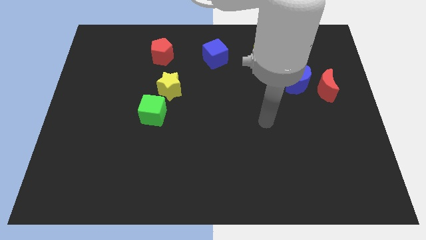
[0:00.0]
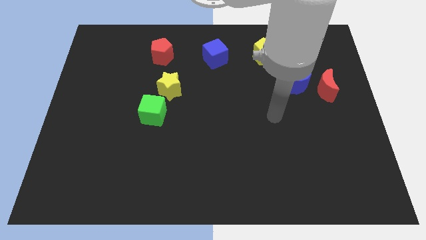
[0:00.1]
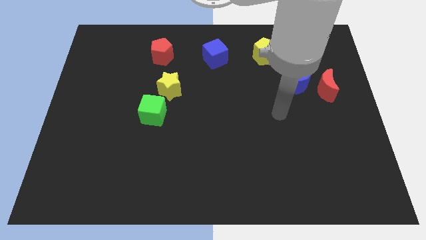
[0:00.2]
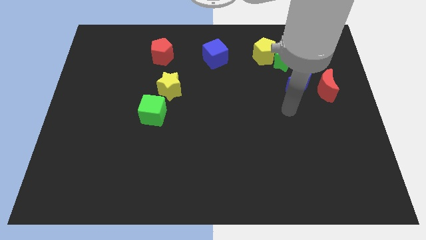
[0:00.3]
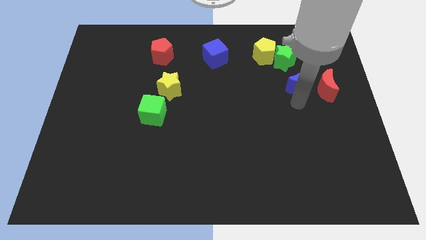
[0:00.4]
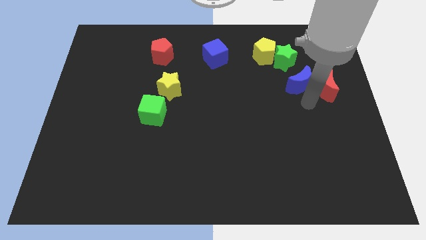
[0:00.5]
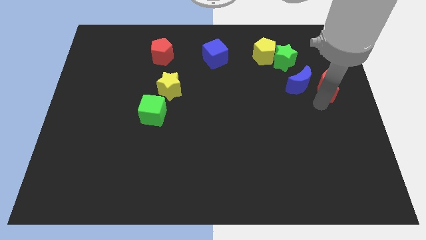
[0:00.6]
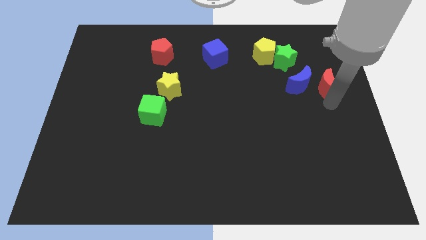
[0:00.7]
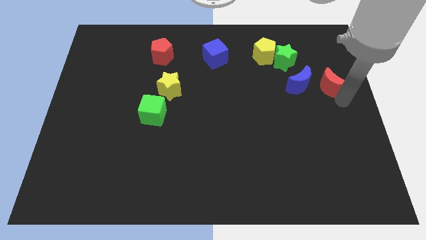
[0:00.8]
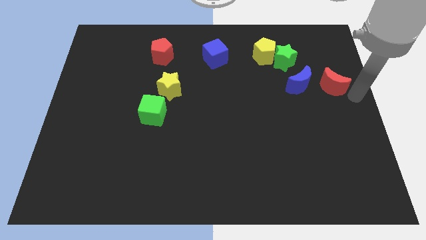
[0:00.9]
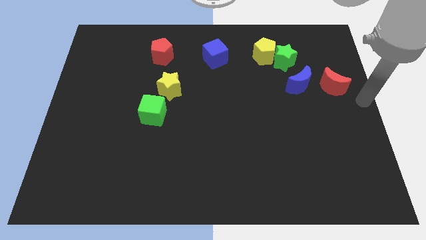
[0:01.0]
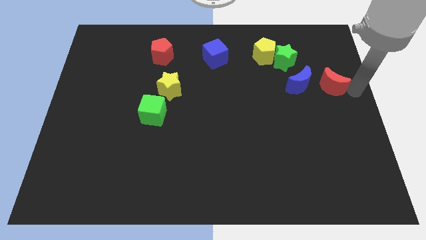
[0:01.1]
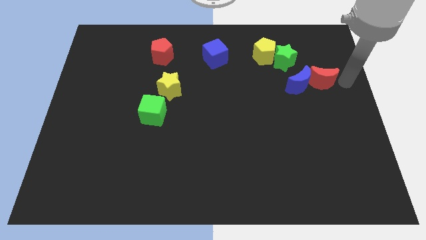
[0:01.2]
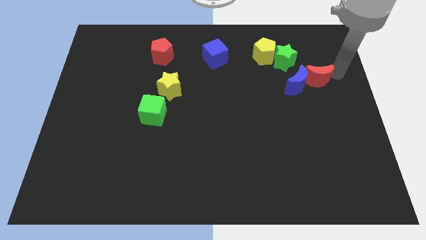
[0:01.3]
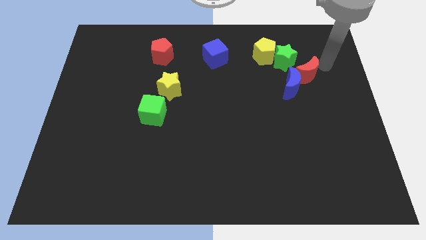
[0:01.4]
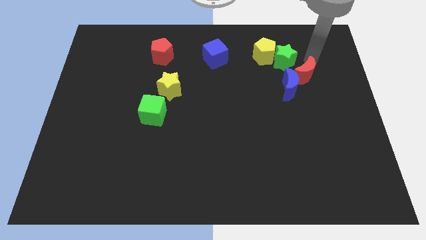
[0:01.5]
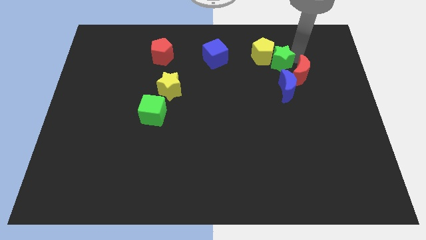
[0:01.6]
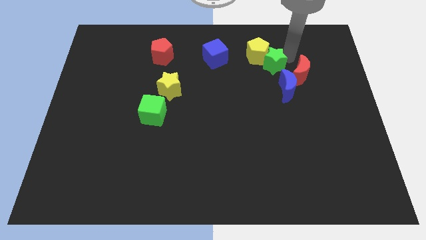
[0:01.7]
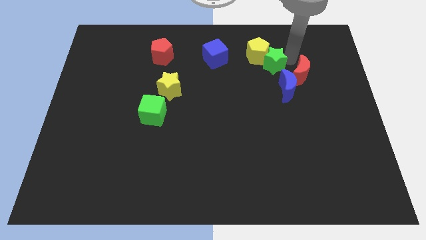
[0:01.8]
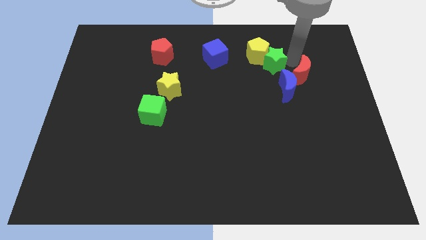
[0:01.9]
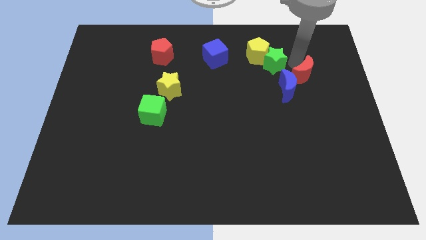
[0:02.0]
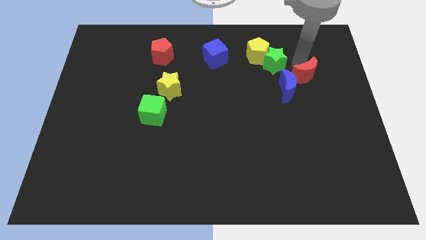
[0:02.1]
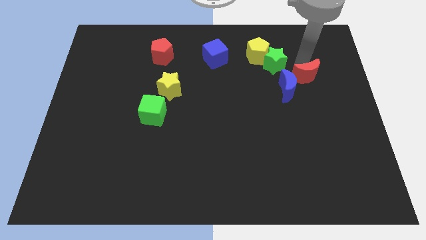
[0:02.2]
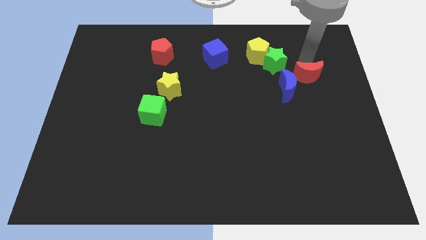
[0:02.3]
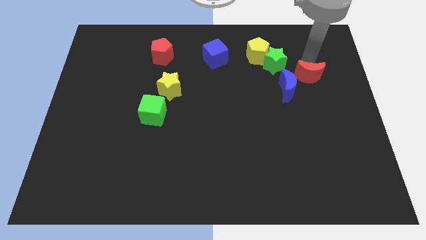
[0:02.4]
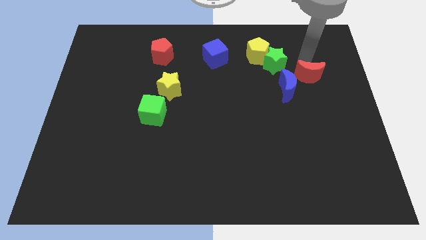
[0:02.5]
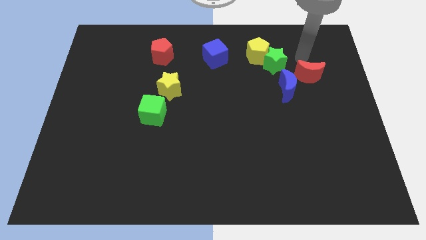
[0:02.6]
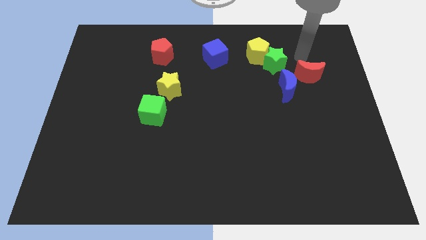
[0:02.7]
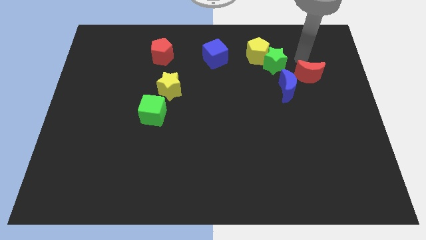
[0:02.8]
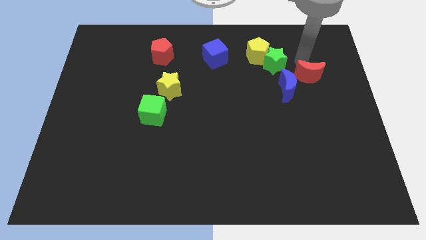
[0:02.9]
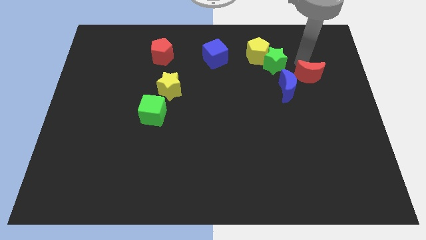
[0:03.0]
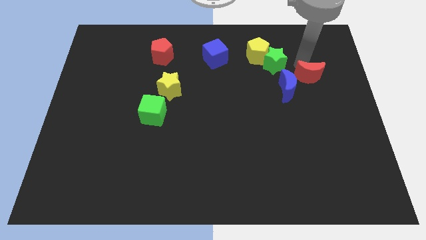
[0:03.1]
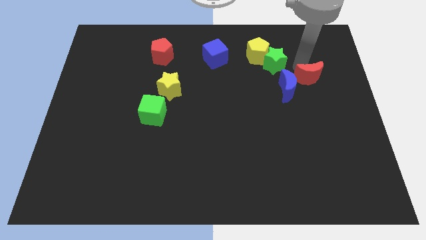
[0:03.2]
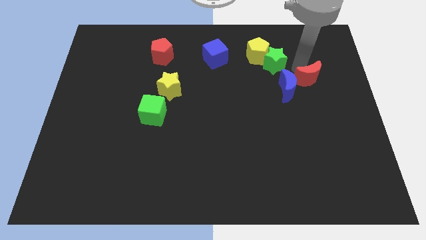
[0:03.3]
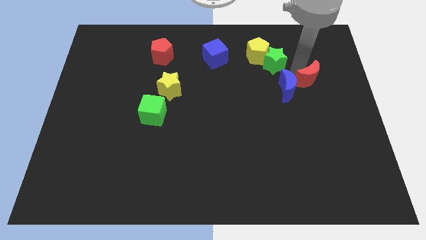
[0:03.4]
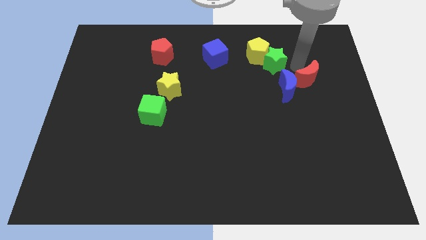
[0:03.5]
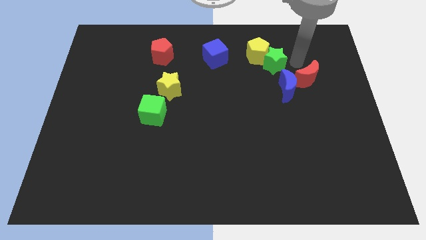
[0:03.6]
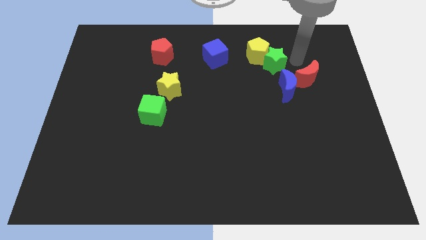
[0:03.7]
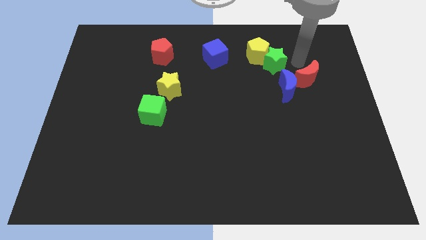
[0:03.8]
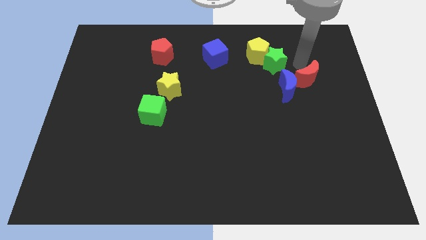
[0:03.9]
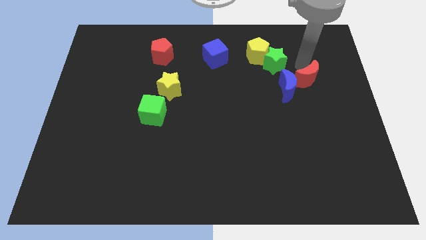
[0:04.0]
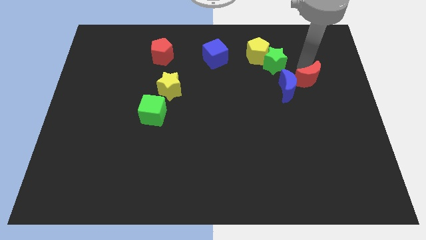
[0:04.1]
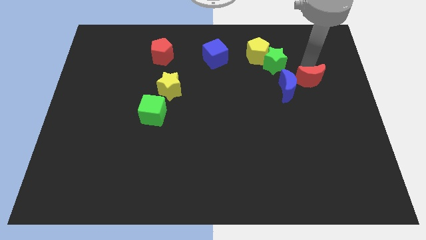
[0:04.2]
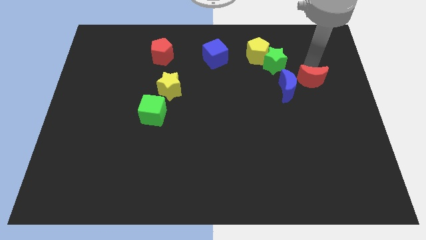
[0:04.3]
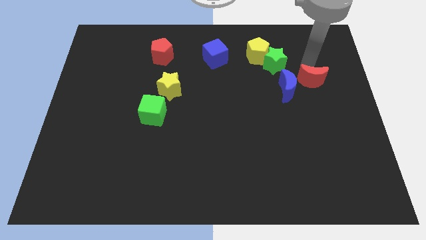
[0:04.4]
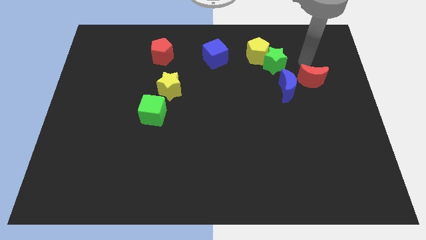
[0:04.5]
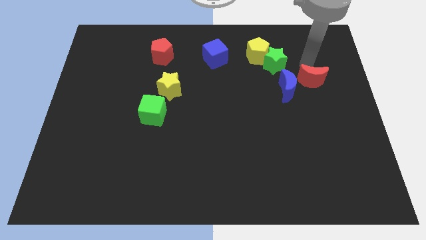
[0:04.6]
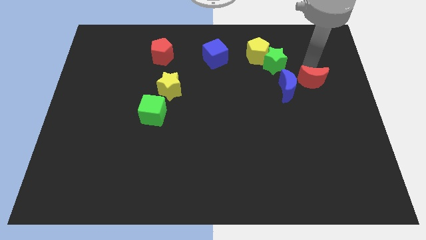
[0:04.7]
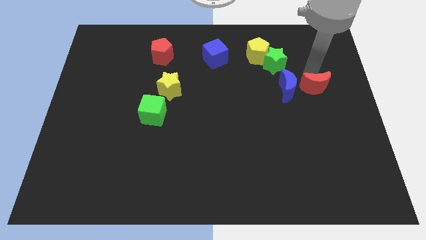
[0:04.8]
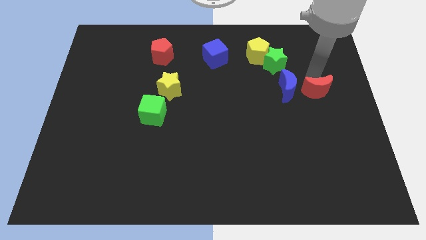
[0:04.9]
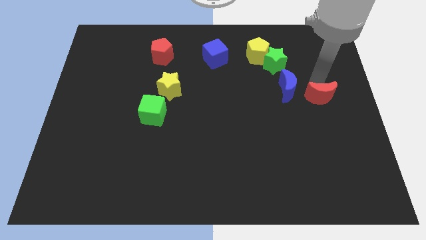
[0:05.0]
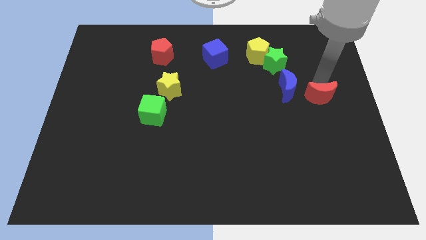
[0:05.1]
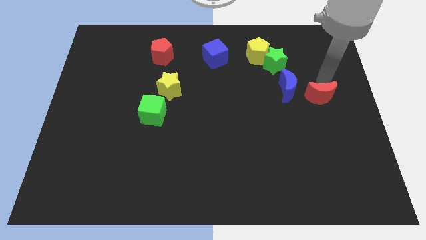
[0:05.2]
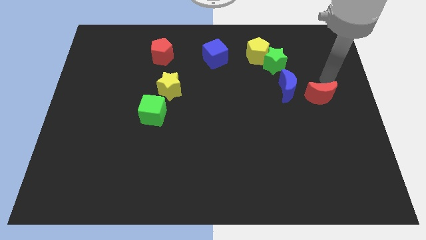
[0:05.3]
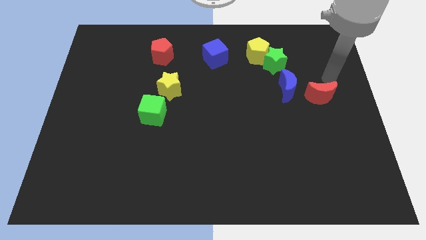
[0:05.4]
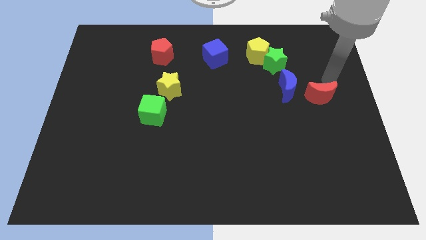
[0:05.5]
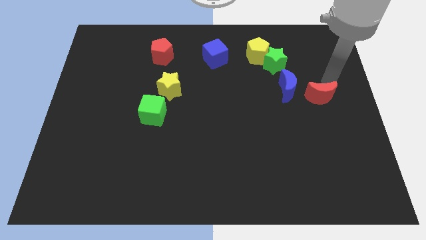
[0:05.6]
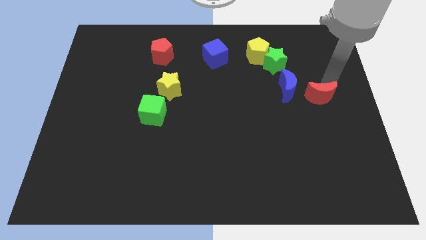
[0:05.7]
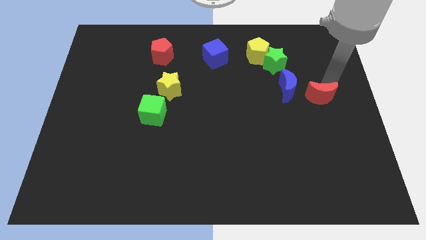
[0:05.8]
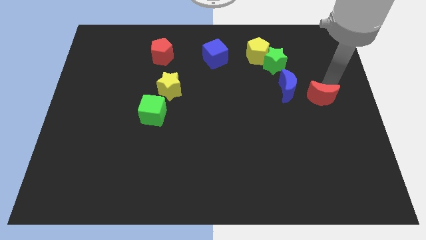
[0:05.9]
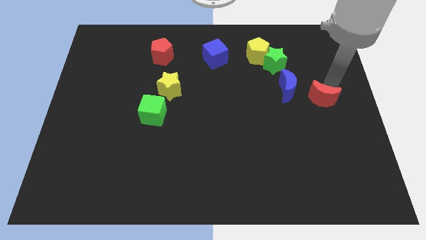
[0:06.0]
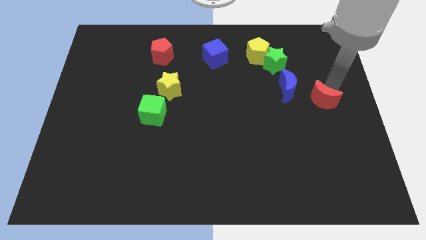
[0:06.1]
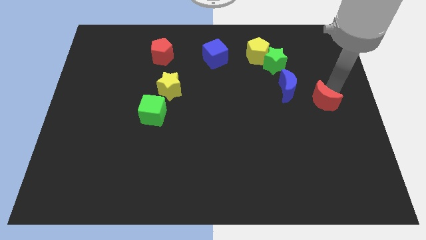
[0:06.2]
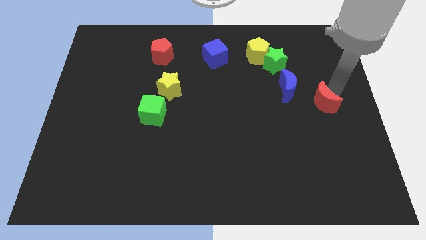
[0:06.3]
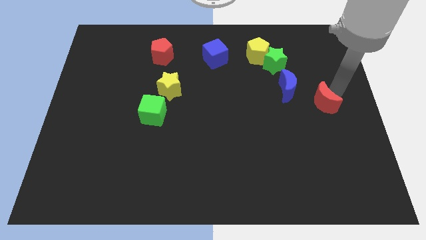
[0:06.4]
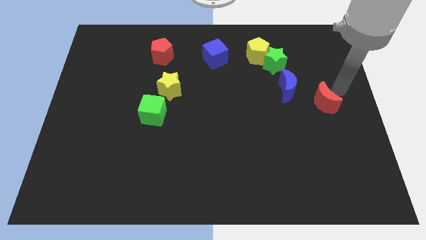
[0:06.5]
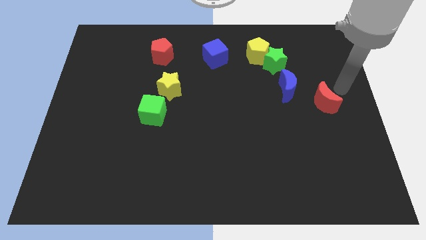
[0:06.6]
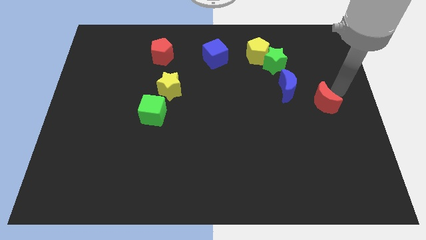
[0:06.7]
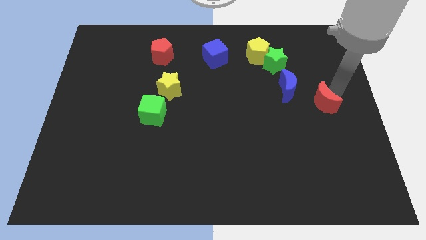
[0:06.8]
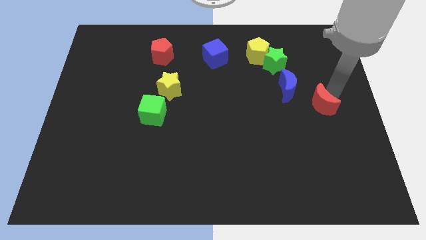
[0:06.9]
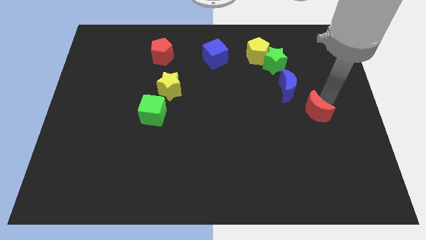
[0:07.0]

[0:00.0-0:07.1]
push the red moon slightly downwards and left

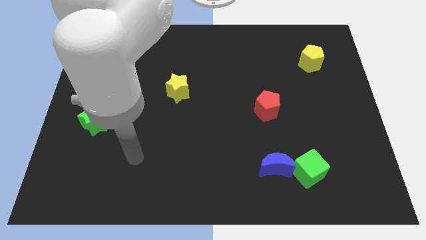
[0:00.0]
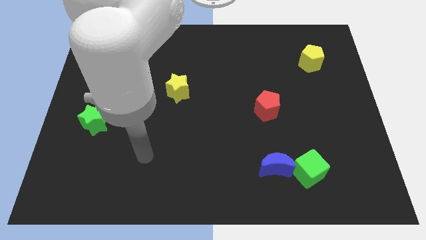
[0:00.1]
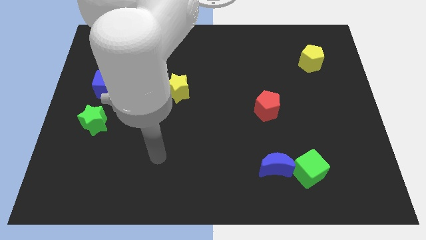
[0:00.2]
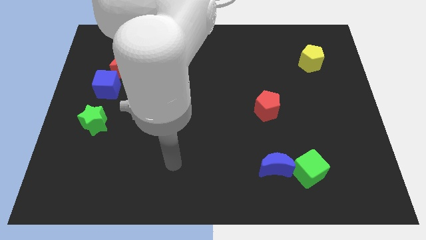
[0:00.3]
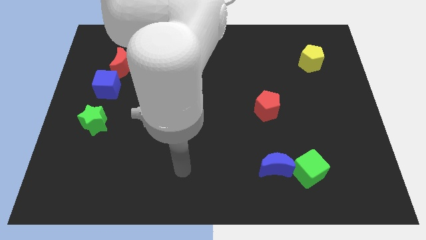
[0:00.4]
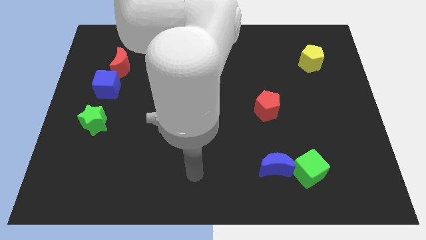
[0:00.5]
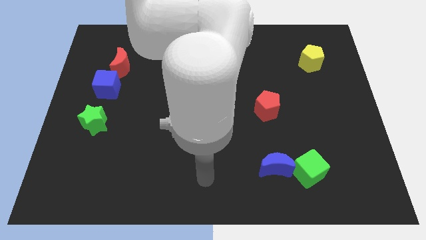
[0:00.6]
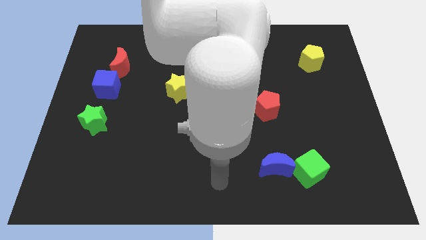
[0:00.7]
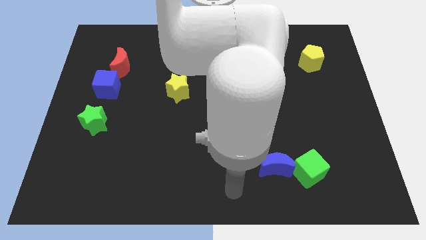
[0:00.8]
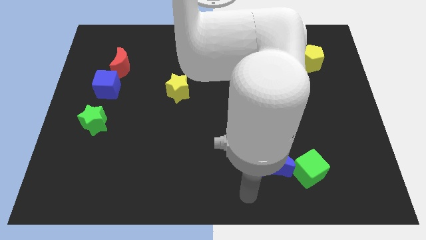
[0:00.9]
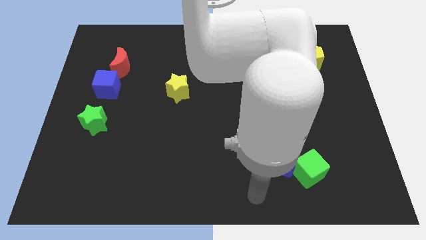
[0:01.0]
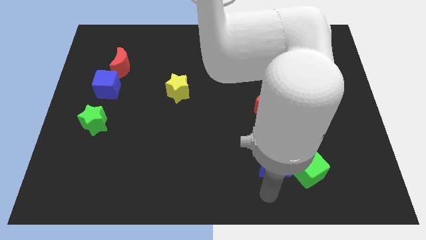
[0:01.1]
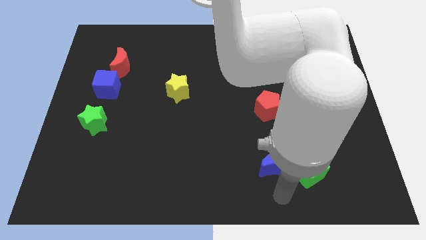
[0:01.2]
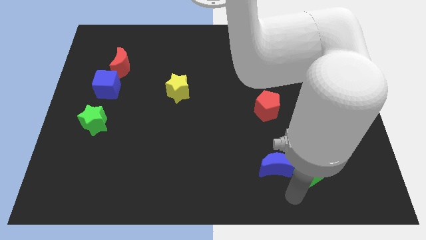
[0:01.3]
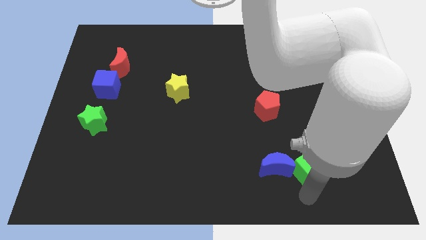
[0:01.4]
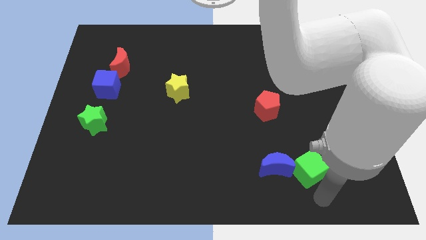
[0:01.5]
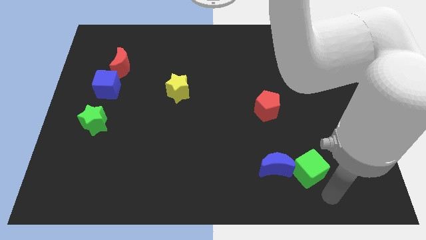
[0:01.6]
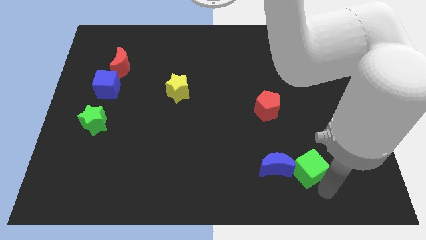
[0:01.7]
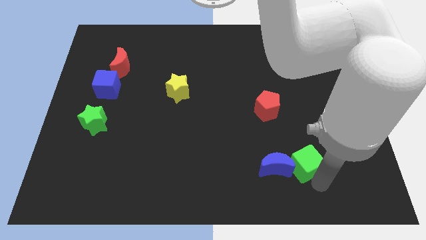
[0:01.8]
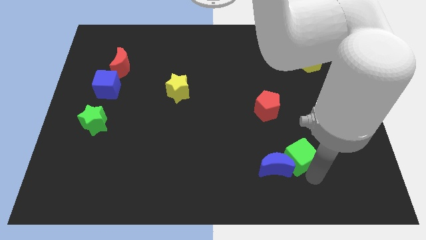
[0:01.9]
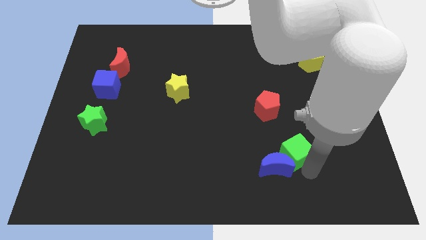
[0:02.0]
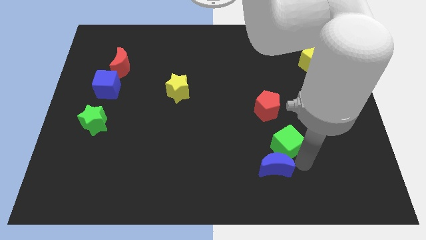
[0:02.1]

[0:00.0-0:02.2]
slightly move the green cube diagonally upwards and left
